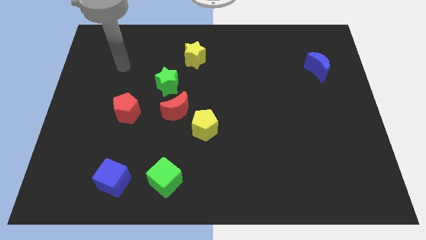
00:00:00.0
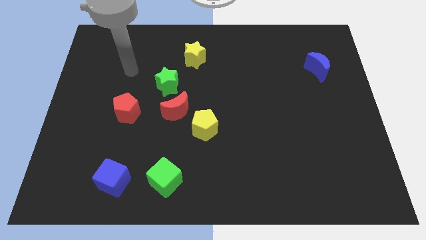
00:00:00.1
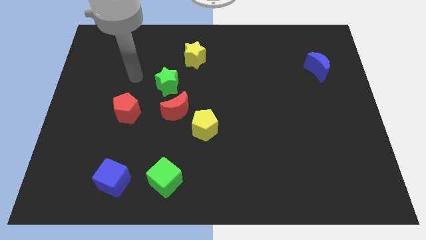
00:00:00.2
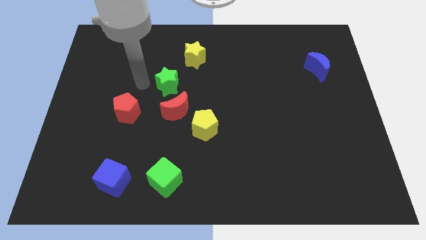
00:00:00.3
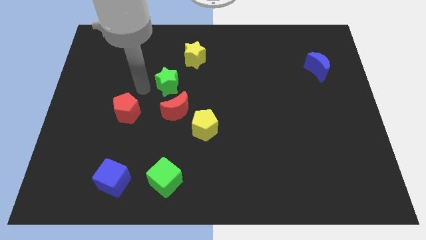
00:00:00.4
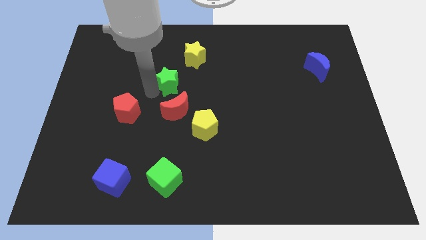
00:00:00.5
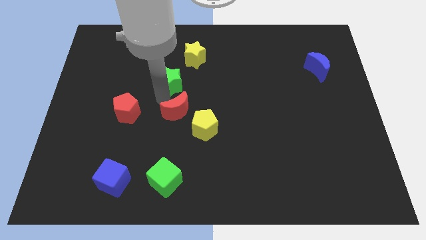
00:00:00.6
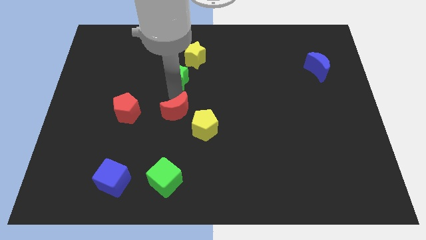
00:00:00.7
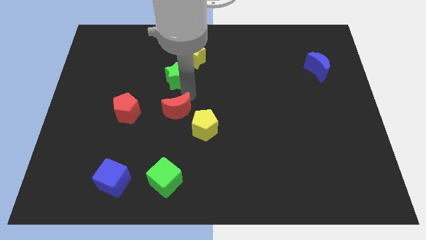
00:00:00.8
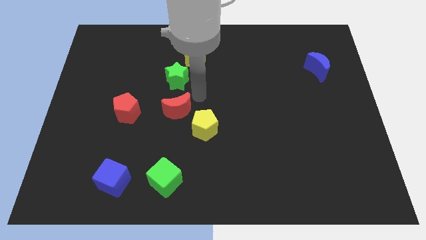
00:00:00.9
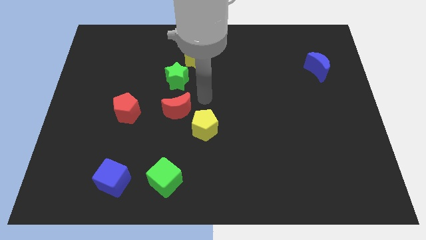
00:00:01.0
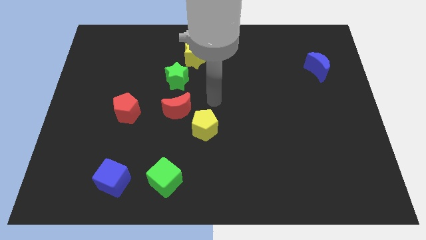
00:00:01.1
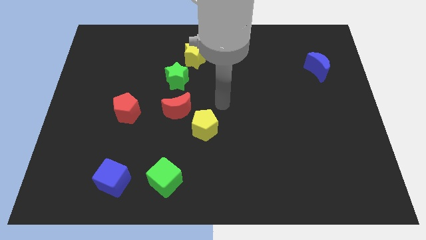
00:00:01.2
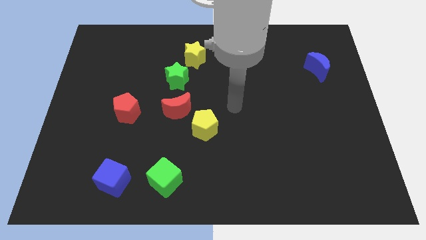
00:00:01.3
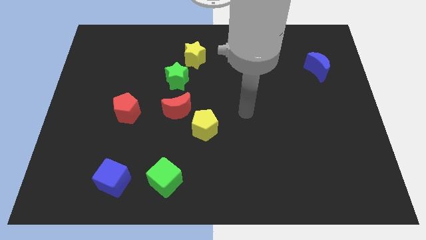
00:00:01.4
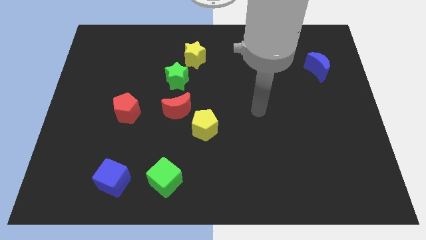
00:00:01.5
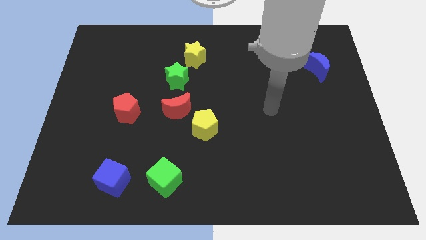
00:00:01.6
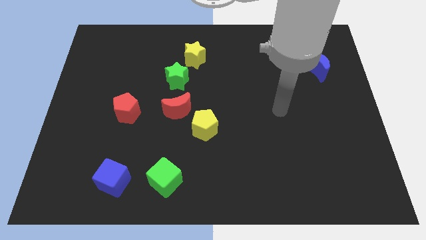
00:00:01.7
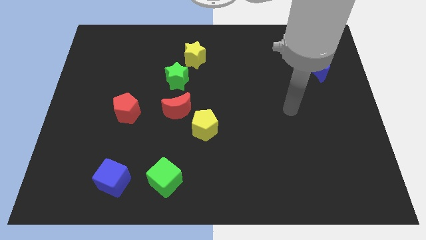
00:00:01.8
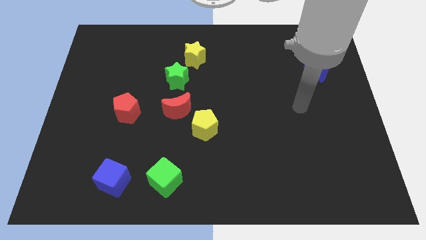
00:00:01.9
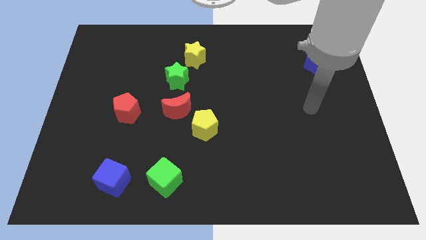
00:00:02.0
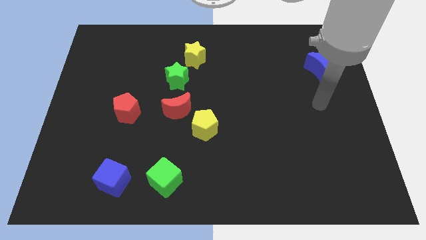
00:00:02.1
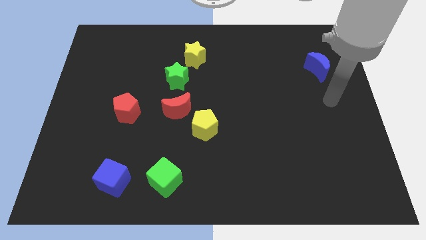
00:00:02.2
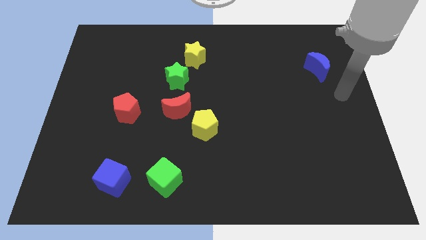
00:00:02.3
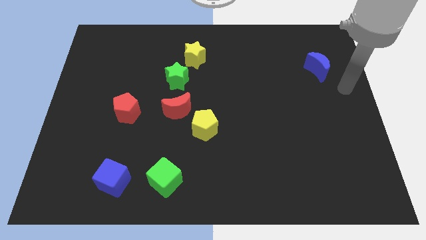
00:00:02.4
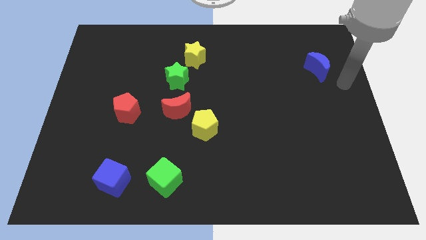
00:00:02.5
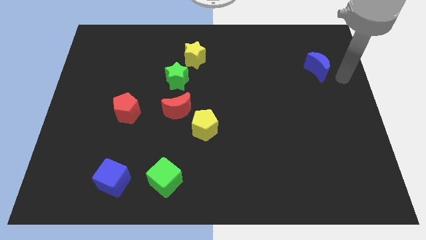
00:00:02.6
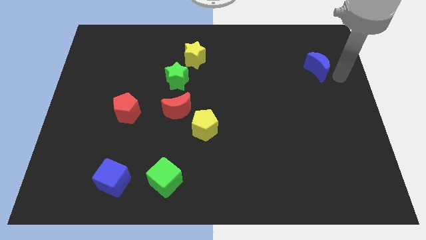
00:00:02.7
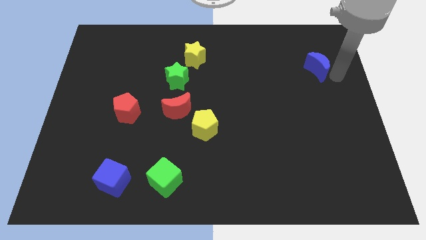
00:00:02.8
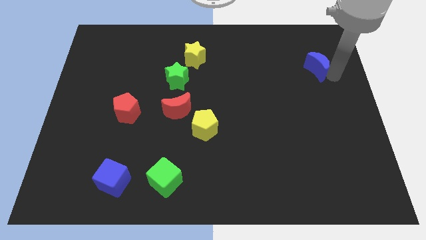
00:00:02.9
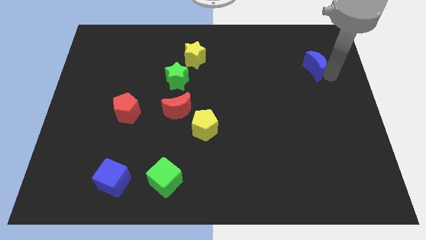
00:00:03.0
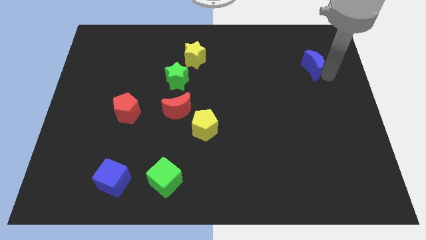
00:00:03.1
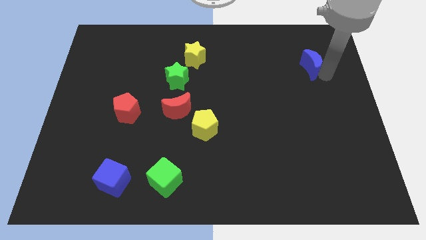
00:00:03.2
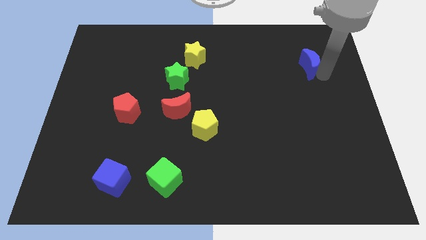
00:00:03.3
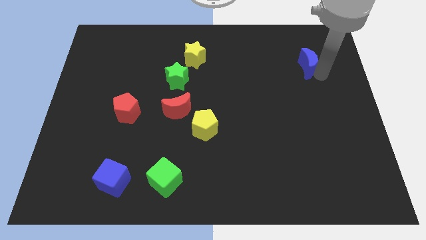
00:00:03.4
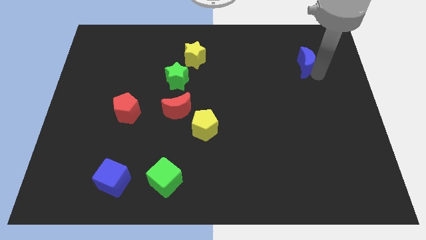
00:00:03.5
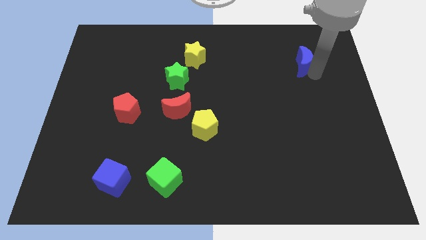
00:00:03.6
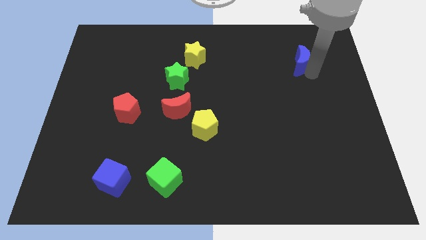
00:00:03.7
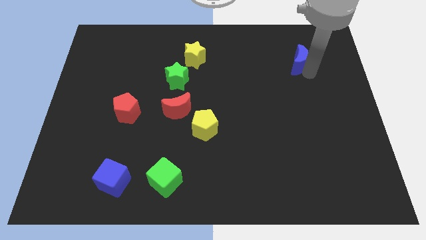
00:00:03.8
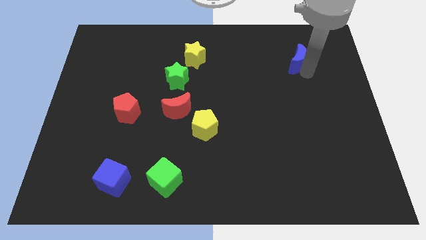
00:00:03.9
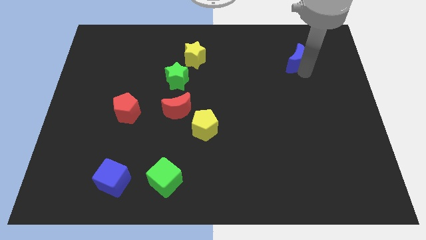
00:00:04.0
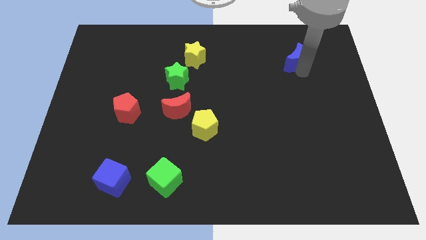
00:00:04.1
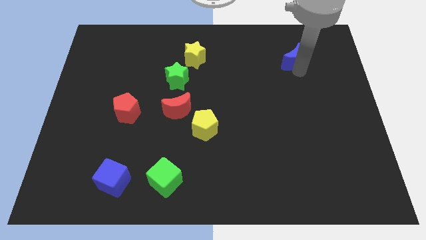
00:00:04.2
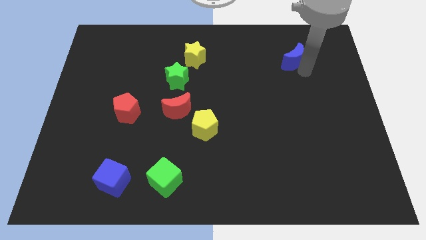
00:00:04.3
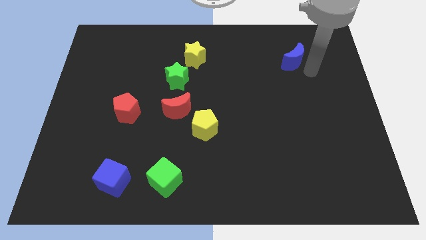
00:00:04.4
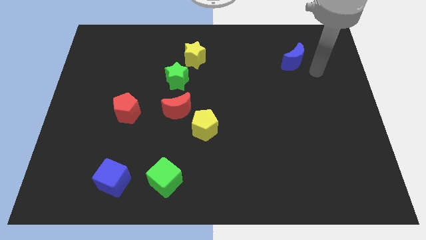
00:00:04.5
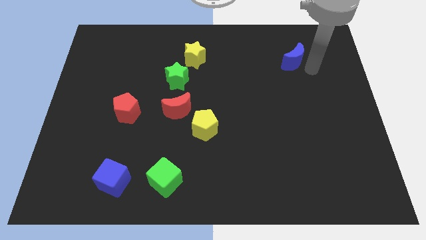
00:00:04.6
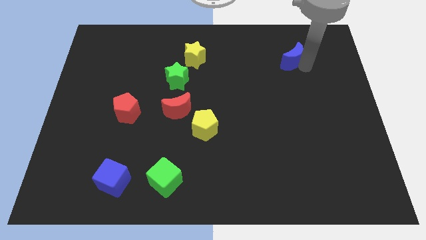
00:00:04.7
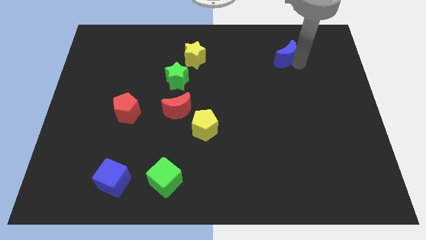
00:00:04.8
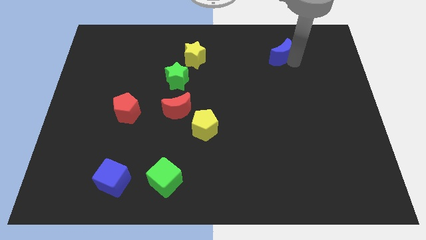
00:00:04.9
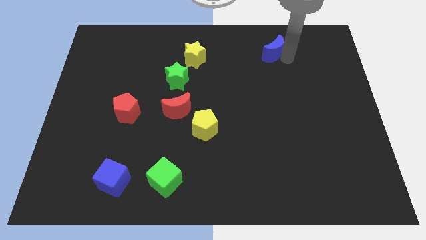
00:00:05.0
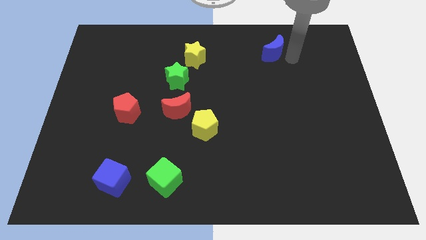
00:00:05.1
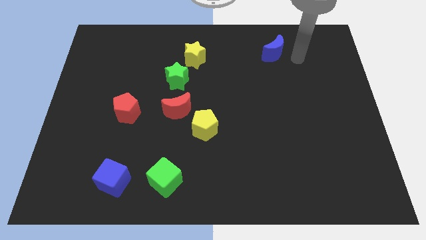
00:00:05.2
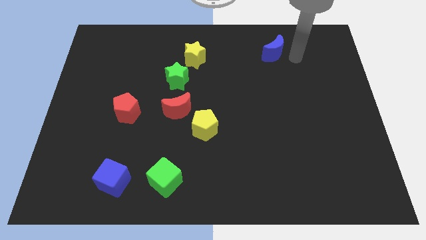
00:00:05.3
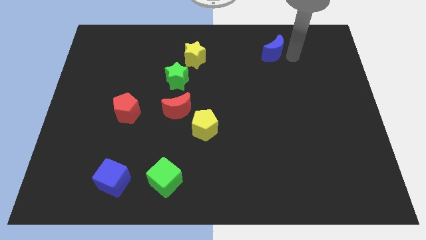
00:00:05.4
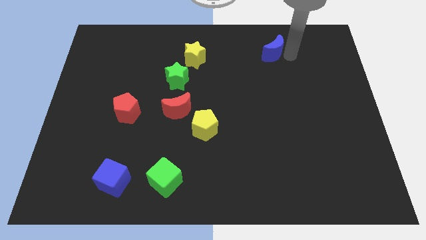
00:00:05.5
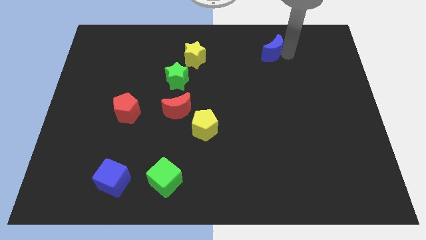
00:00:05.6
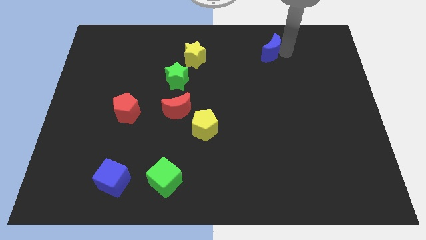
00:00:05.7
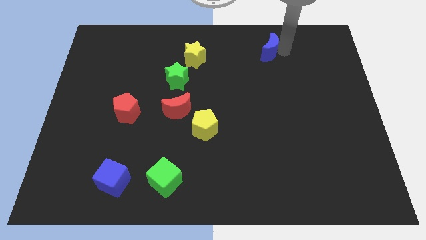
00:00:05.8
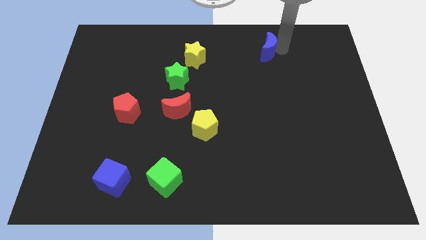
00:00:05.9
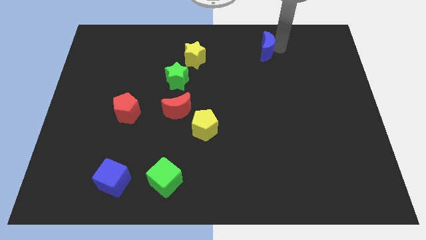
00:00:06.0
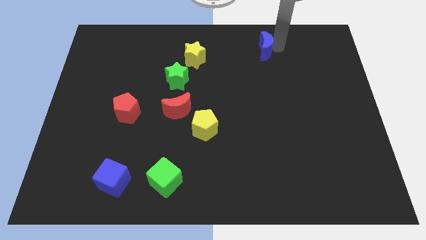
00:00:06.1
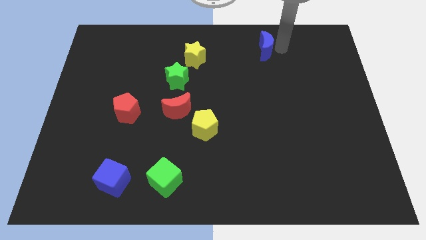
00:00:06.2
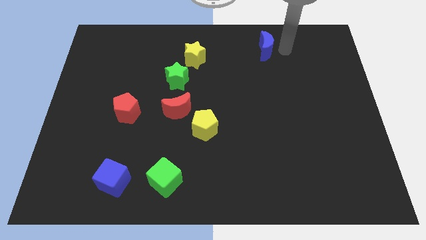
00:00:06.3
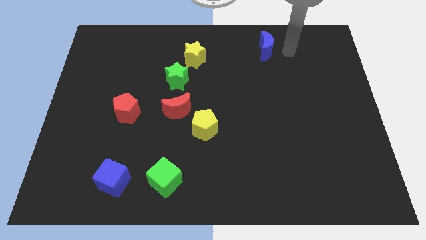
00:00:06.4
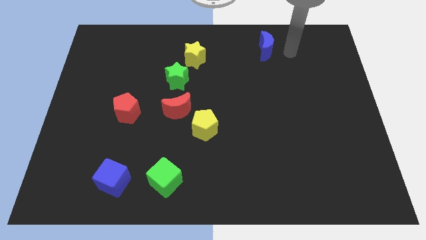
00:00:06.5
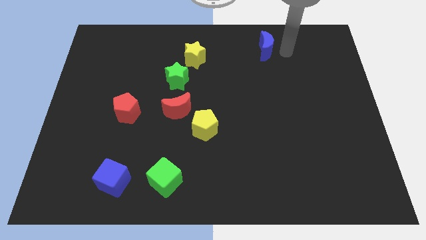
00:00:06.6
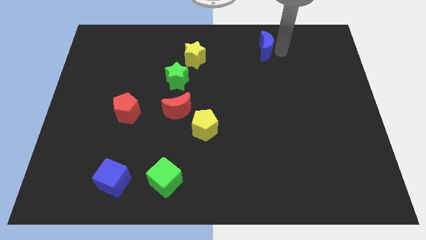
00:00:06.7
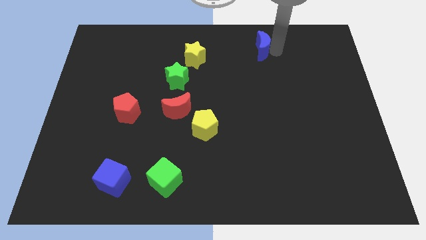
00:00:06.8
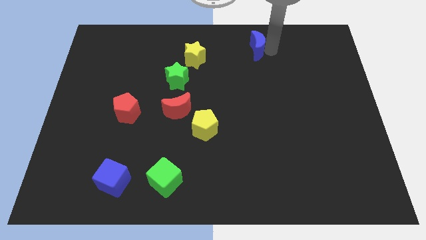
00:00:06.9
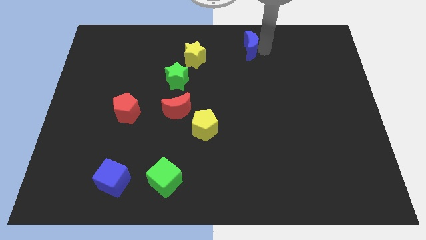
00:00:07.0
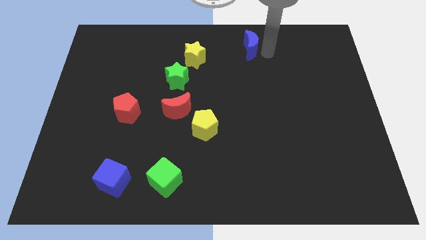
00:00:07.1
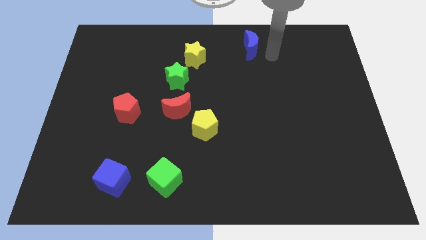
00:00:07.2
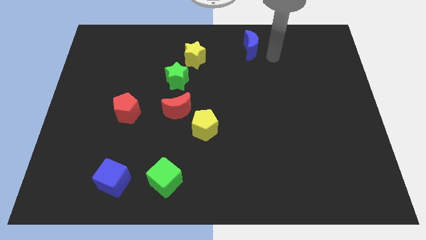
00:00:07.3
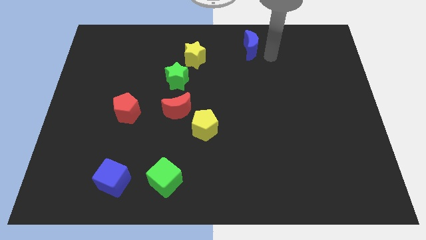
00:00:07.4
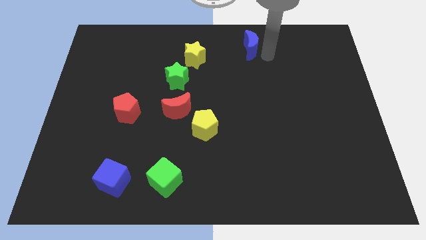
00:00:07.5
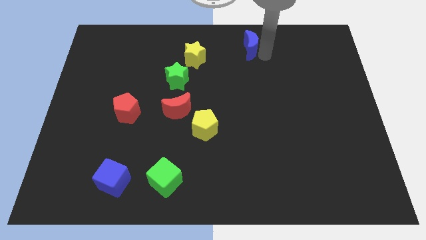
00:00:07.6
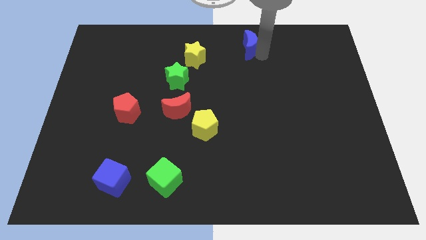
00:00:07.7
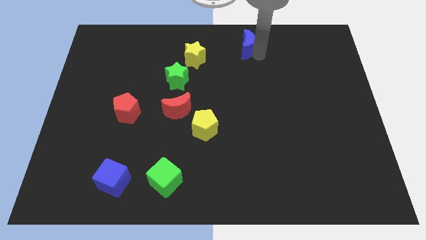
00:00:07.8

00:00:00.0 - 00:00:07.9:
slide the blue moon to the top side
